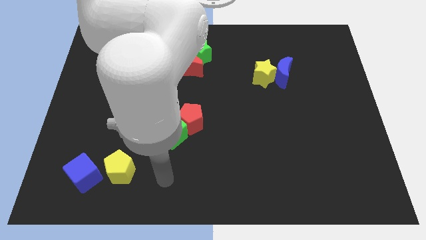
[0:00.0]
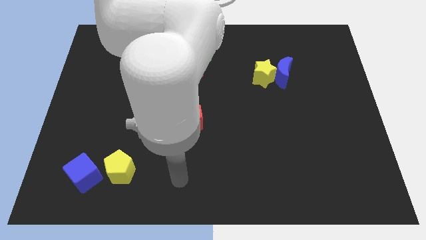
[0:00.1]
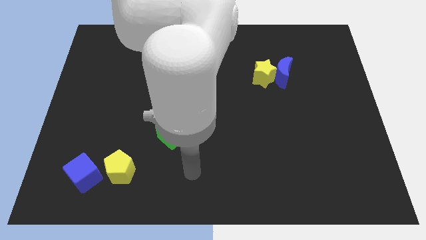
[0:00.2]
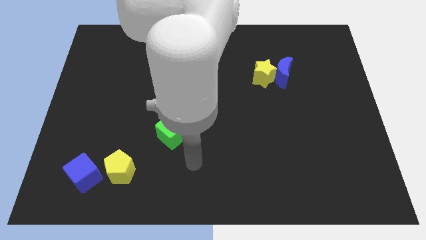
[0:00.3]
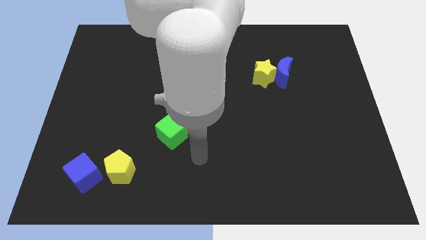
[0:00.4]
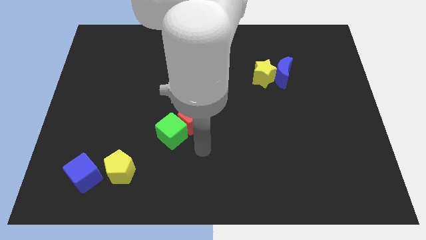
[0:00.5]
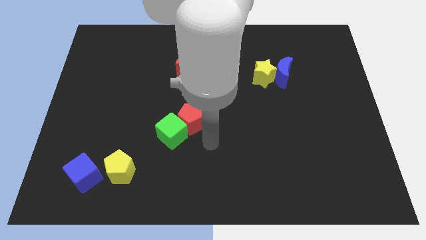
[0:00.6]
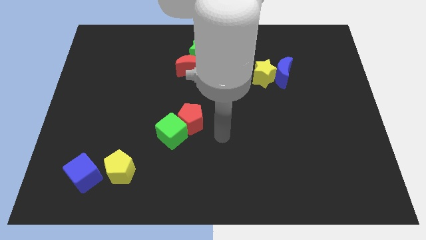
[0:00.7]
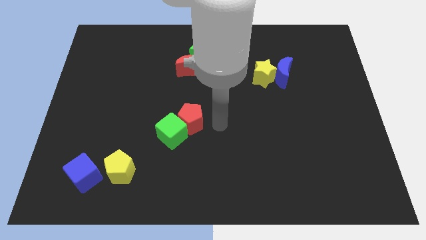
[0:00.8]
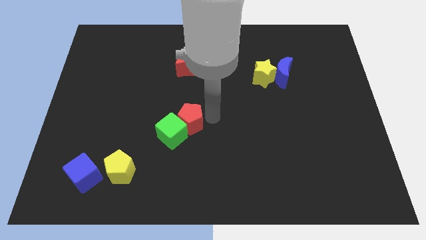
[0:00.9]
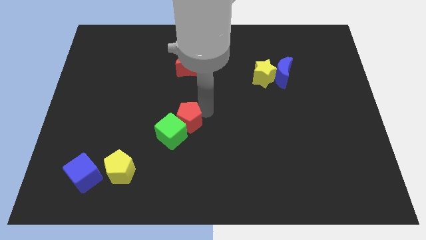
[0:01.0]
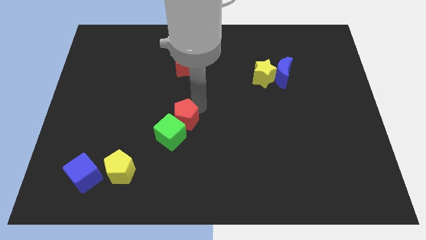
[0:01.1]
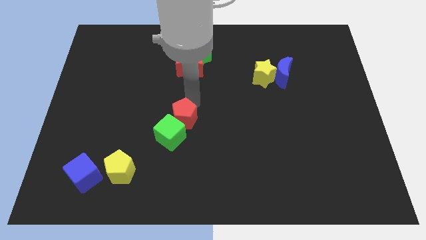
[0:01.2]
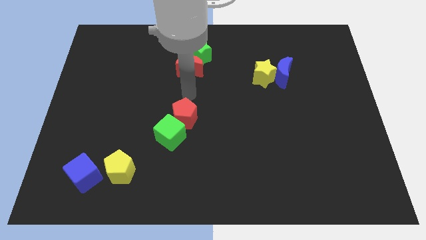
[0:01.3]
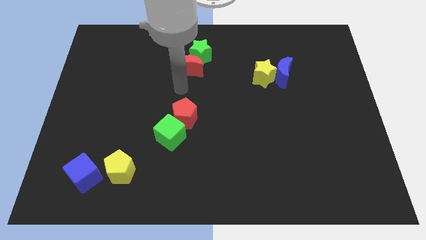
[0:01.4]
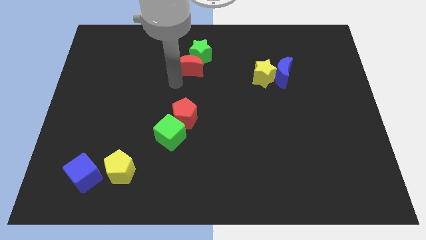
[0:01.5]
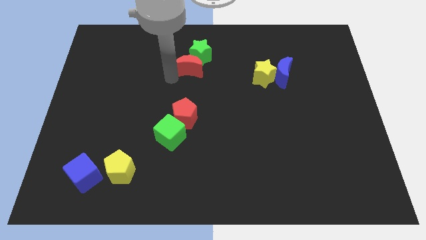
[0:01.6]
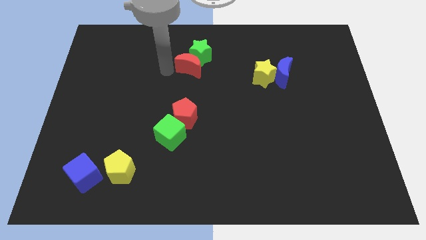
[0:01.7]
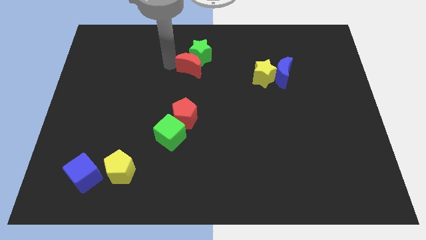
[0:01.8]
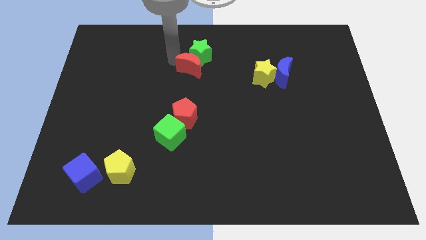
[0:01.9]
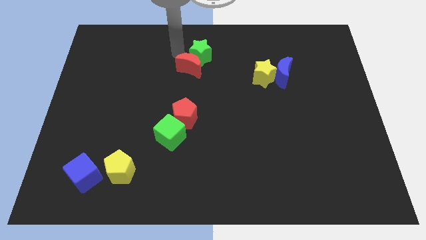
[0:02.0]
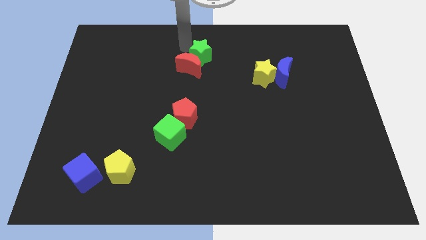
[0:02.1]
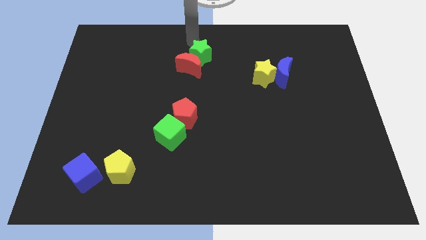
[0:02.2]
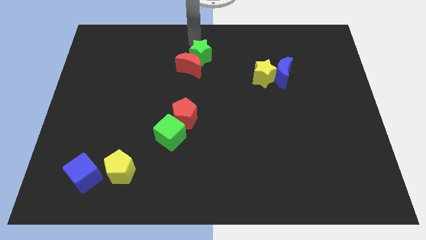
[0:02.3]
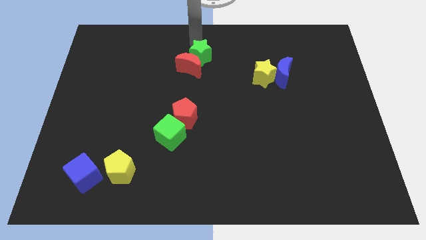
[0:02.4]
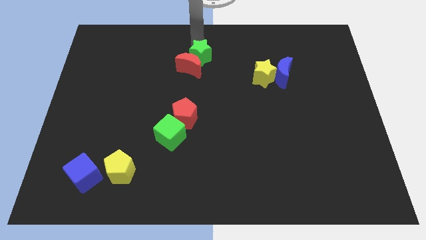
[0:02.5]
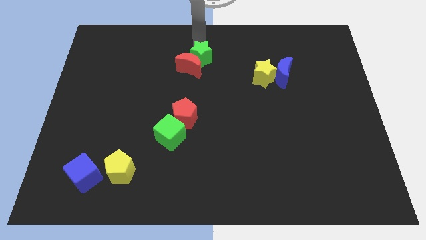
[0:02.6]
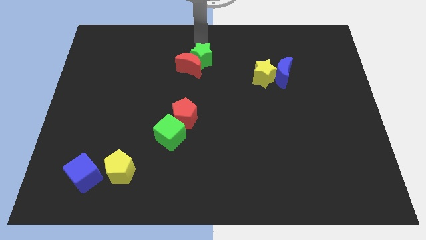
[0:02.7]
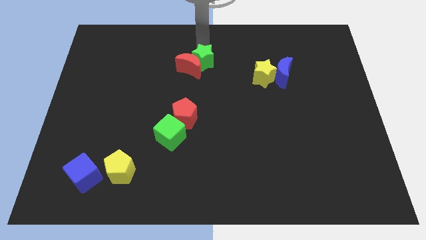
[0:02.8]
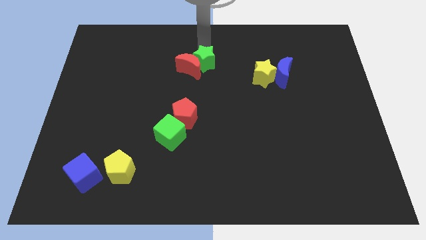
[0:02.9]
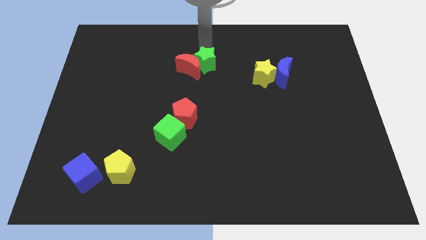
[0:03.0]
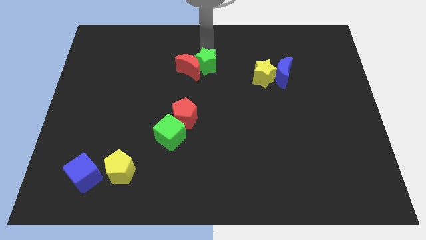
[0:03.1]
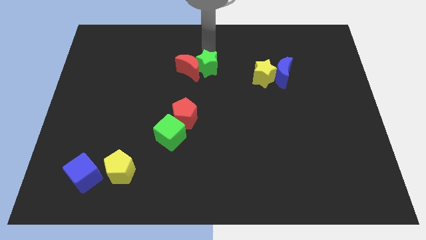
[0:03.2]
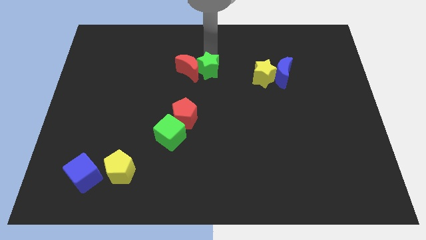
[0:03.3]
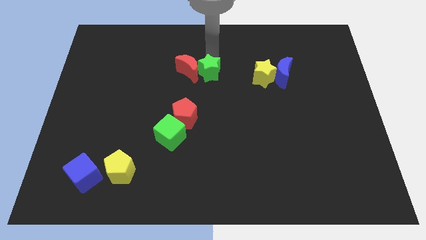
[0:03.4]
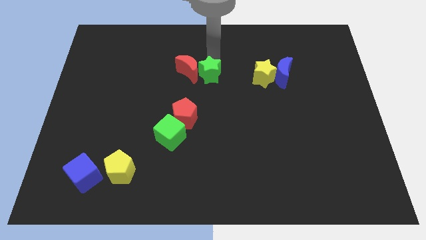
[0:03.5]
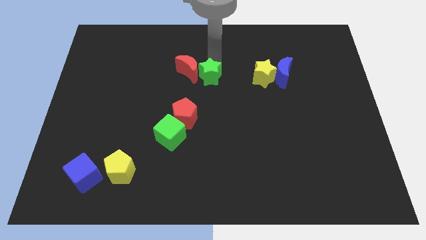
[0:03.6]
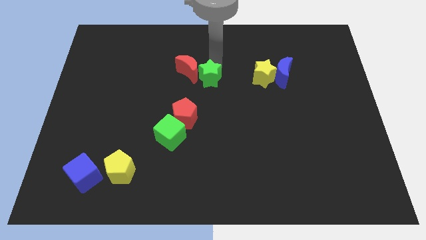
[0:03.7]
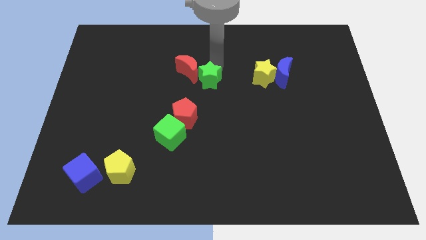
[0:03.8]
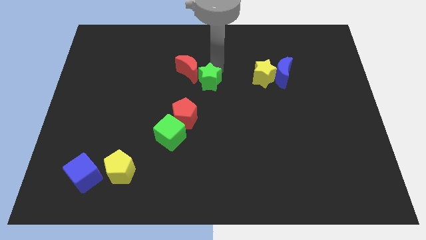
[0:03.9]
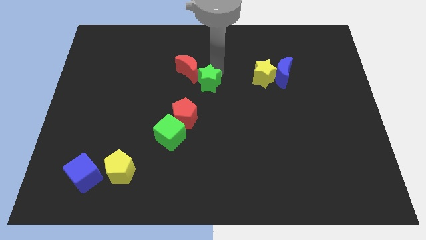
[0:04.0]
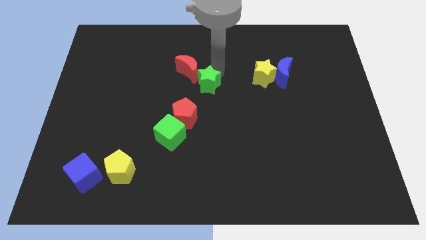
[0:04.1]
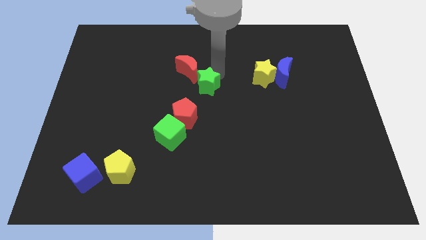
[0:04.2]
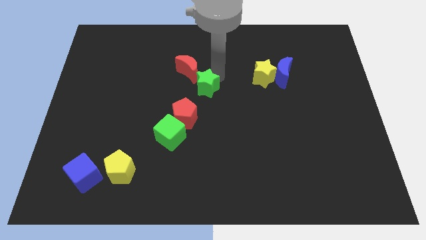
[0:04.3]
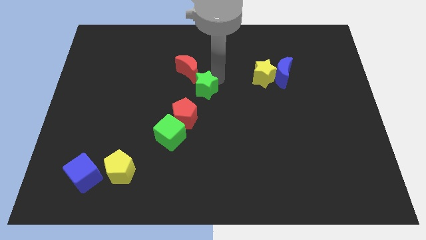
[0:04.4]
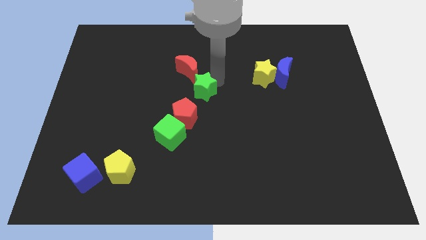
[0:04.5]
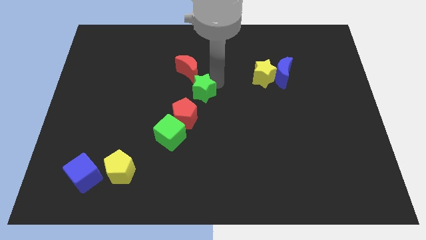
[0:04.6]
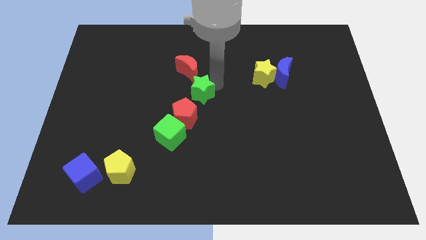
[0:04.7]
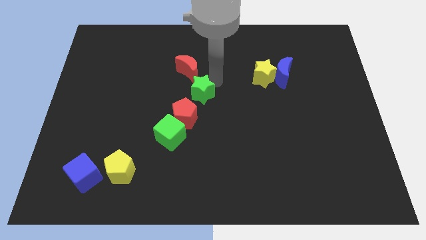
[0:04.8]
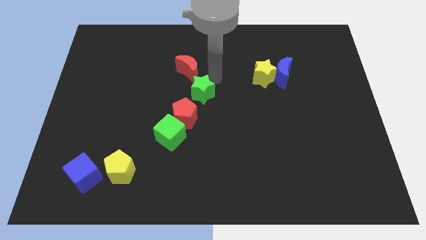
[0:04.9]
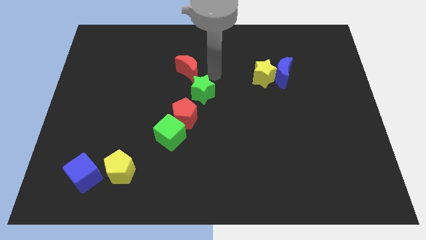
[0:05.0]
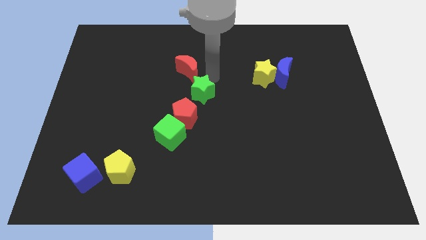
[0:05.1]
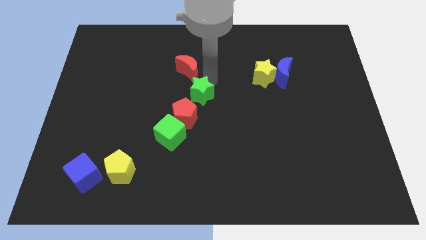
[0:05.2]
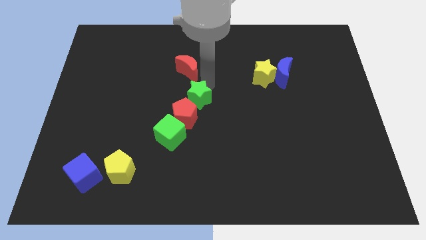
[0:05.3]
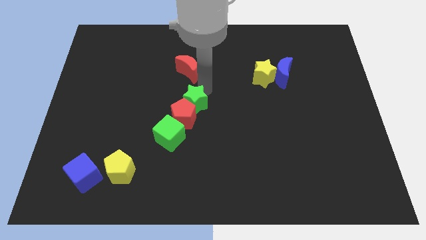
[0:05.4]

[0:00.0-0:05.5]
slide the green star to the red pentagon

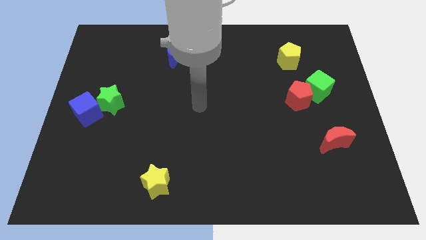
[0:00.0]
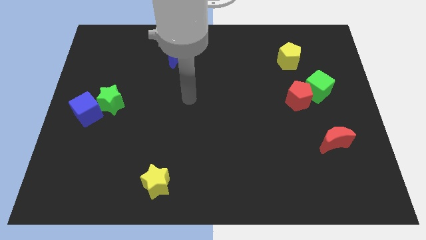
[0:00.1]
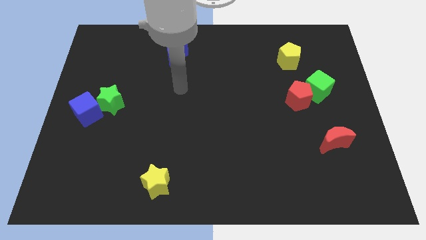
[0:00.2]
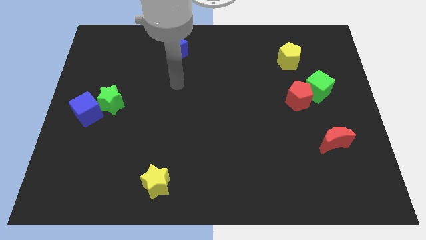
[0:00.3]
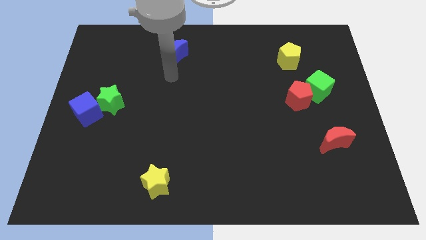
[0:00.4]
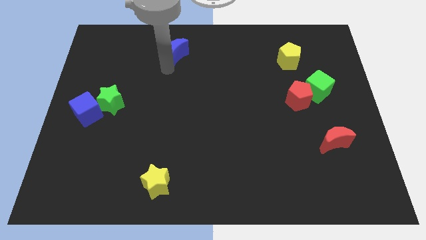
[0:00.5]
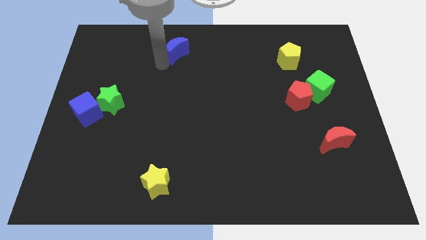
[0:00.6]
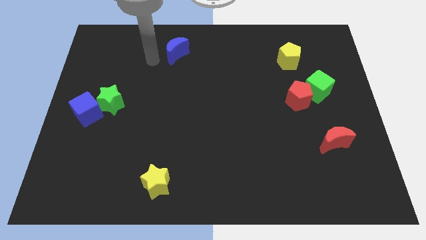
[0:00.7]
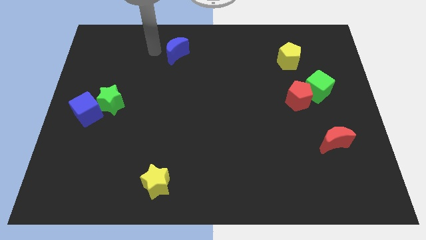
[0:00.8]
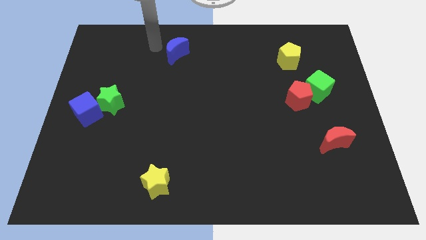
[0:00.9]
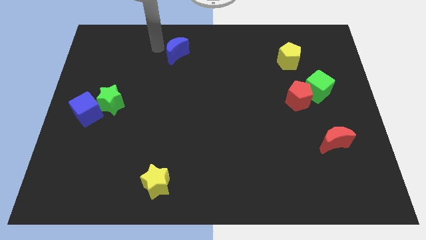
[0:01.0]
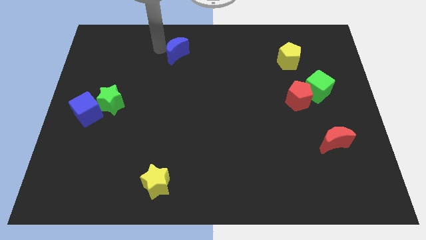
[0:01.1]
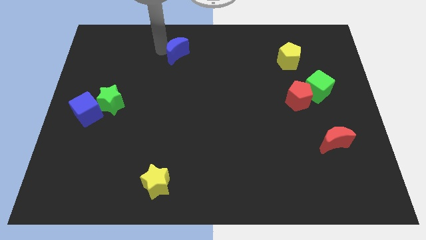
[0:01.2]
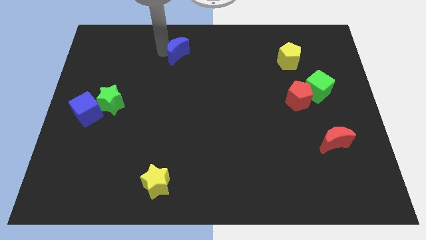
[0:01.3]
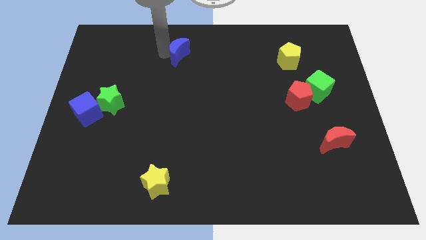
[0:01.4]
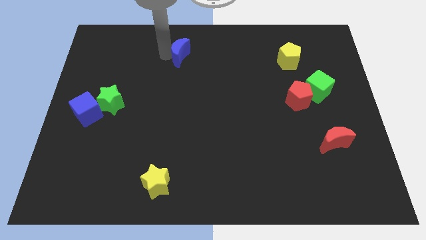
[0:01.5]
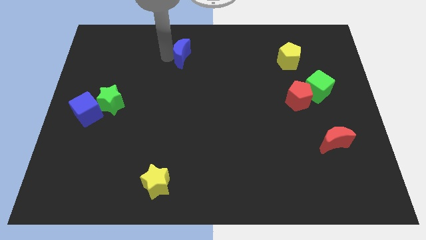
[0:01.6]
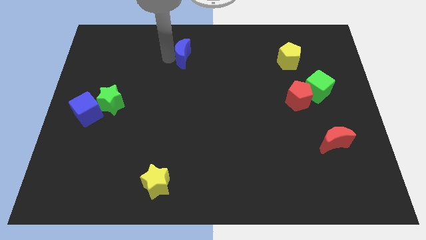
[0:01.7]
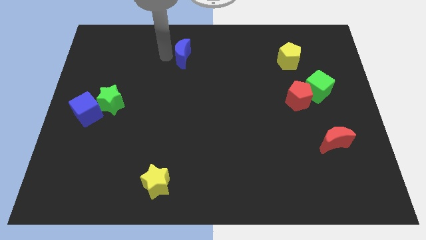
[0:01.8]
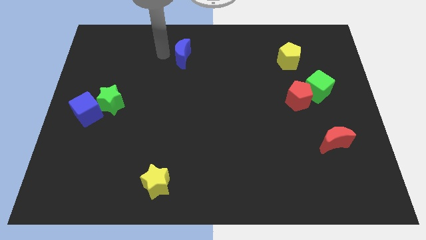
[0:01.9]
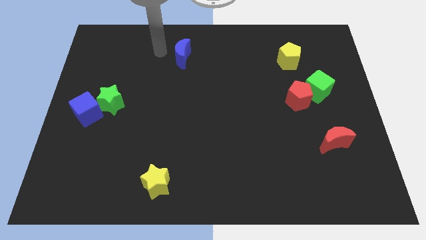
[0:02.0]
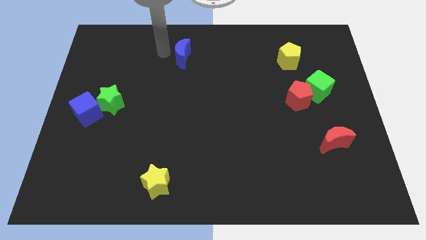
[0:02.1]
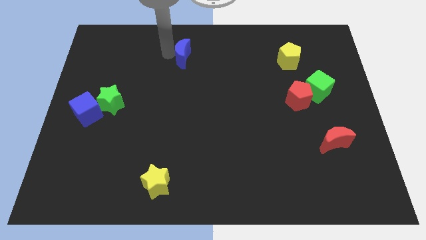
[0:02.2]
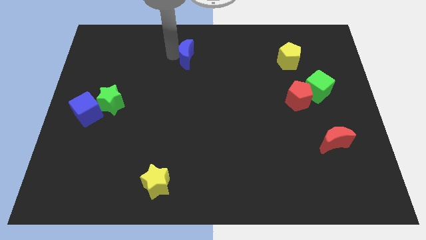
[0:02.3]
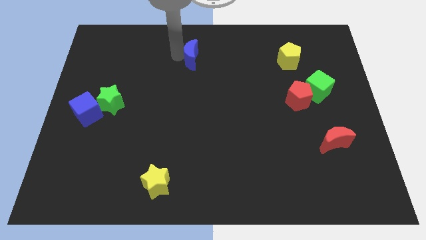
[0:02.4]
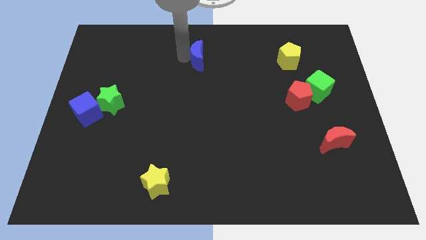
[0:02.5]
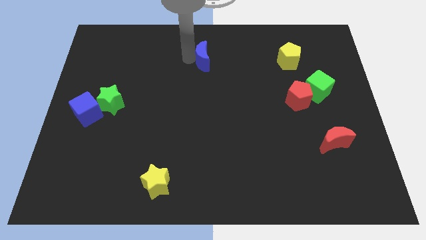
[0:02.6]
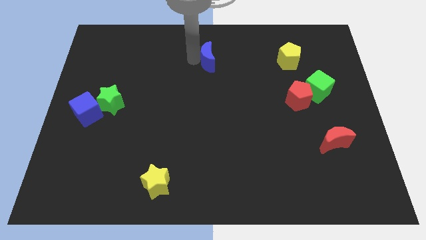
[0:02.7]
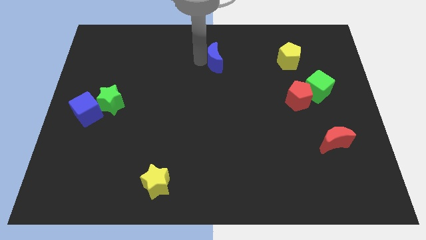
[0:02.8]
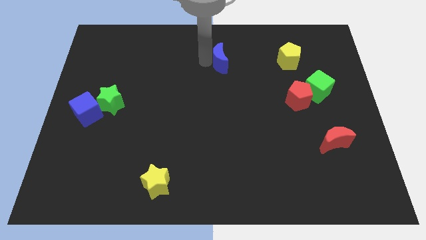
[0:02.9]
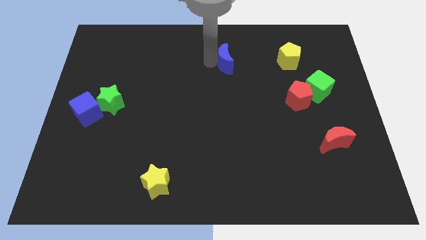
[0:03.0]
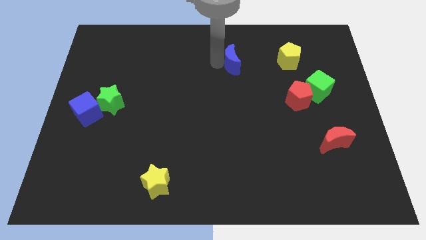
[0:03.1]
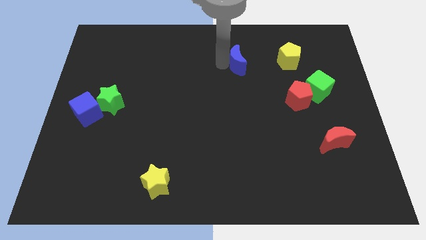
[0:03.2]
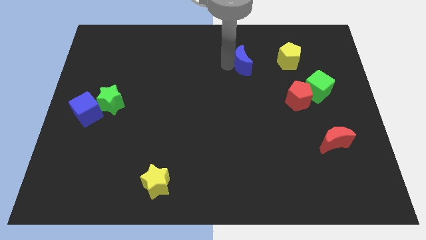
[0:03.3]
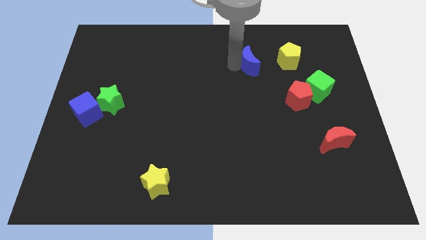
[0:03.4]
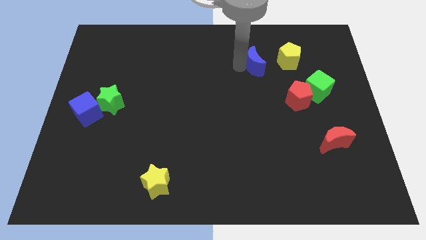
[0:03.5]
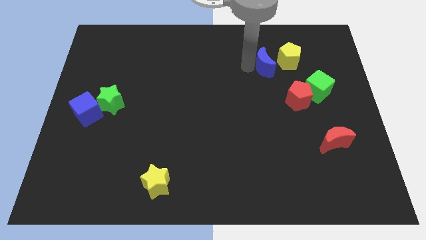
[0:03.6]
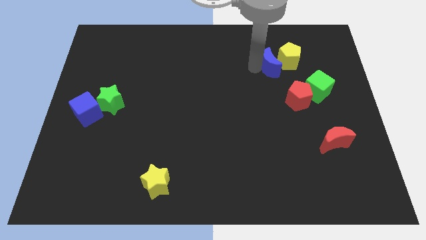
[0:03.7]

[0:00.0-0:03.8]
push the blue moon next to the yellow pentagon
